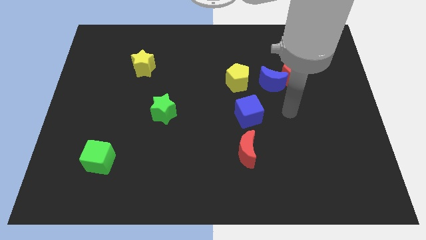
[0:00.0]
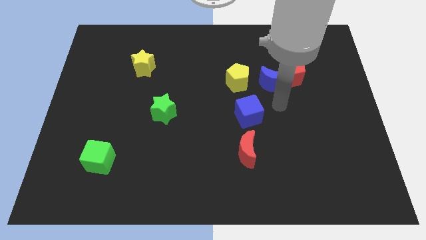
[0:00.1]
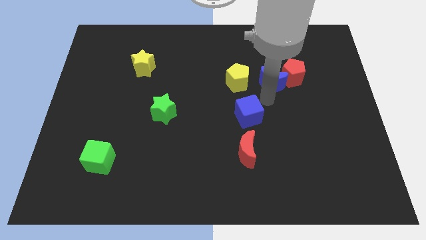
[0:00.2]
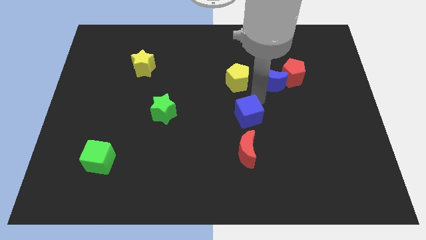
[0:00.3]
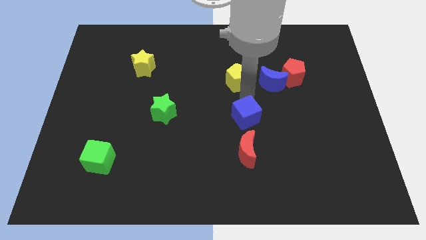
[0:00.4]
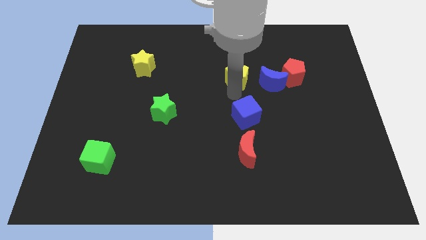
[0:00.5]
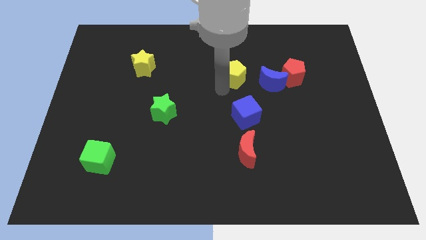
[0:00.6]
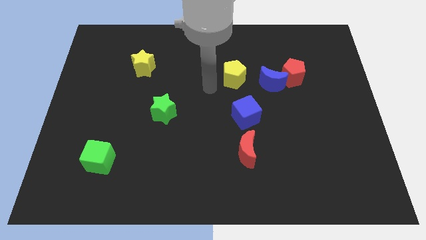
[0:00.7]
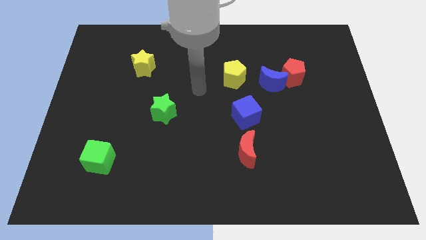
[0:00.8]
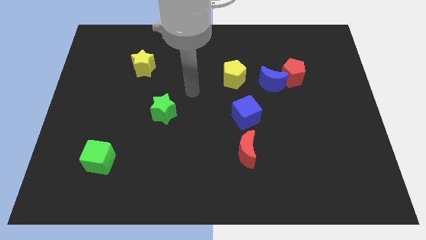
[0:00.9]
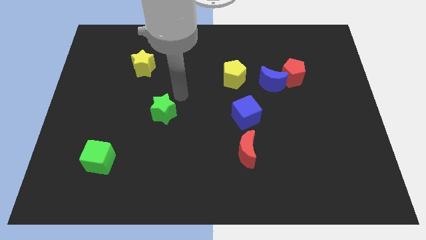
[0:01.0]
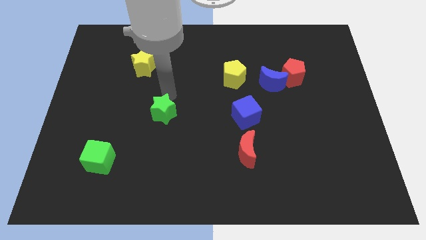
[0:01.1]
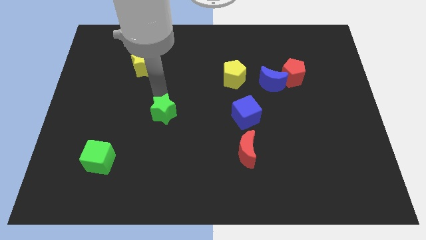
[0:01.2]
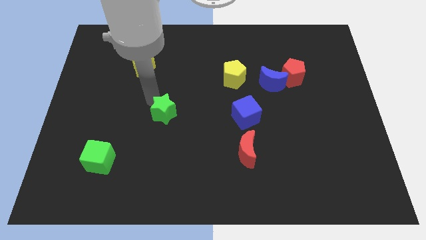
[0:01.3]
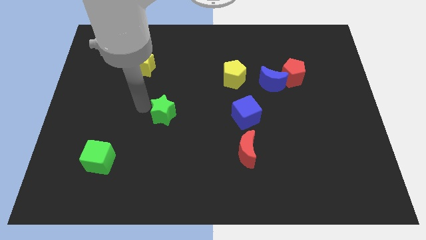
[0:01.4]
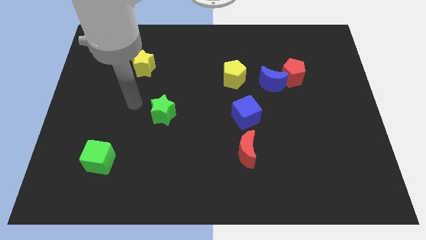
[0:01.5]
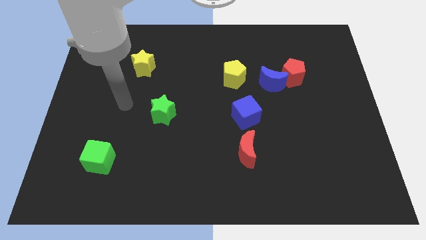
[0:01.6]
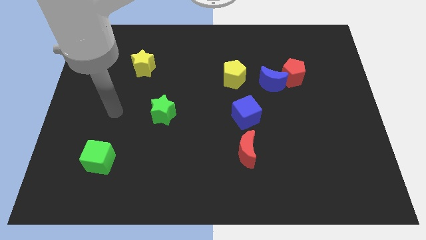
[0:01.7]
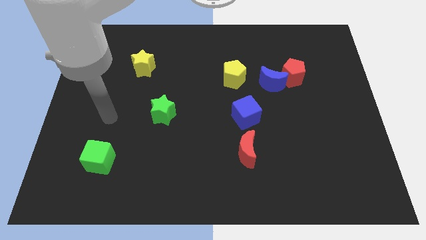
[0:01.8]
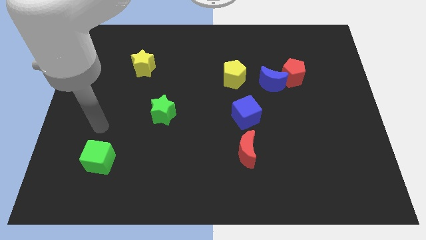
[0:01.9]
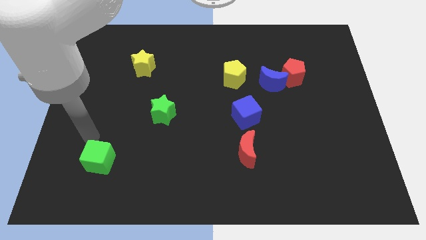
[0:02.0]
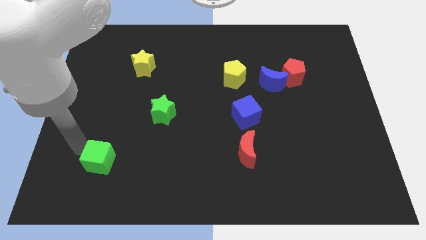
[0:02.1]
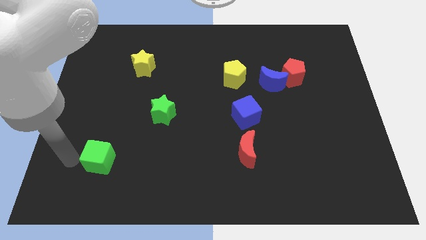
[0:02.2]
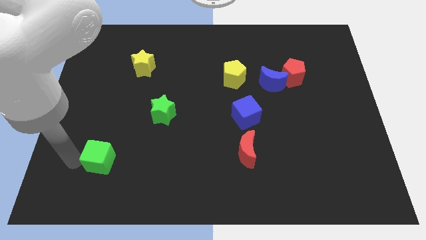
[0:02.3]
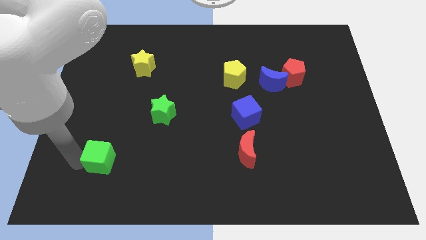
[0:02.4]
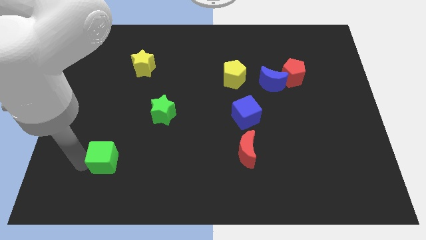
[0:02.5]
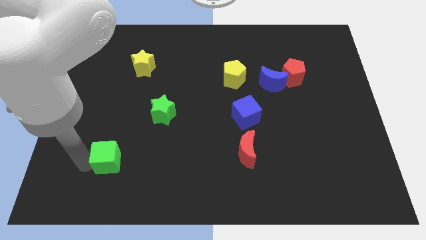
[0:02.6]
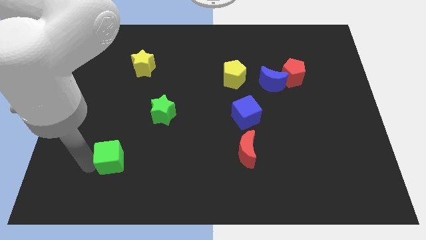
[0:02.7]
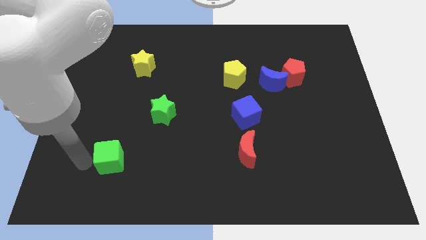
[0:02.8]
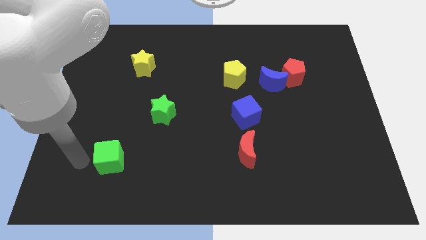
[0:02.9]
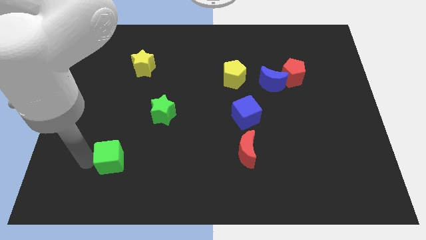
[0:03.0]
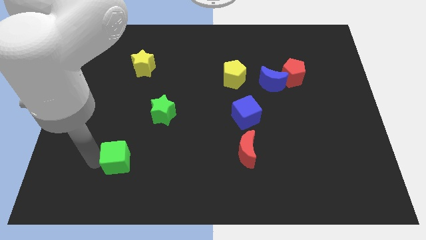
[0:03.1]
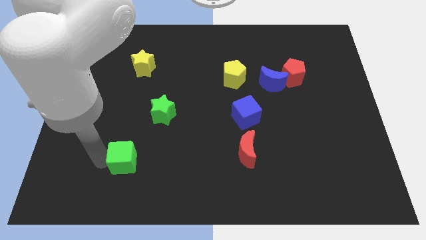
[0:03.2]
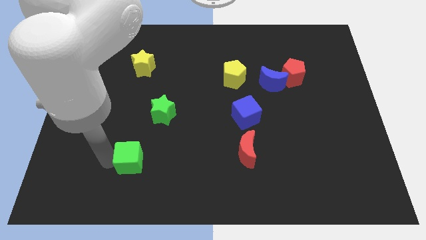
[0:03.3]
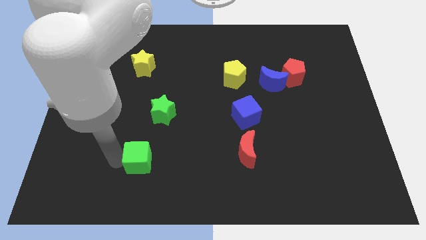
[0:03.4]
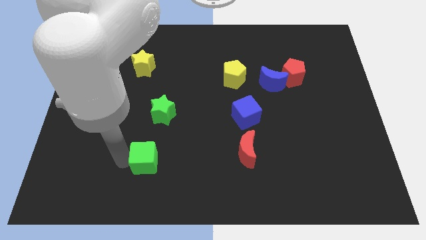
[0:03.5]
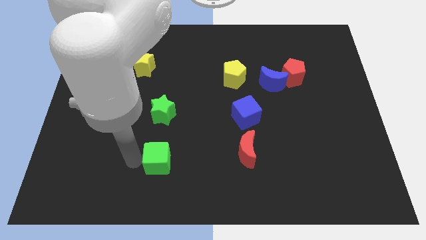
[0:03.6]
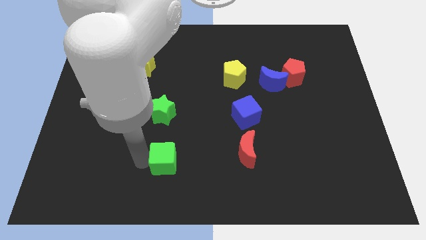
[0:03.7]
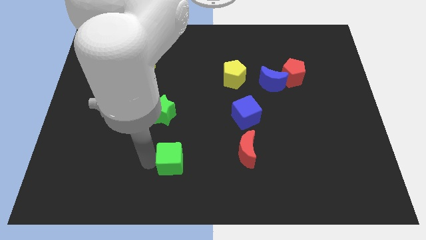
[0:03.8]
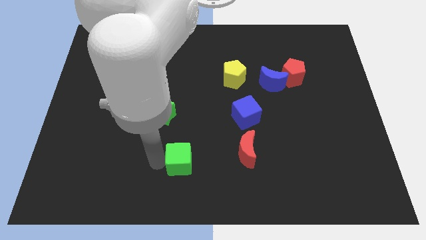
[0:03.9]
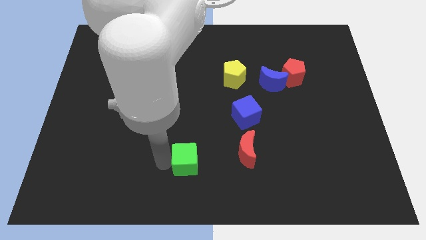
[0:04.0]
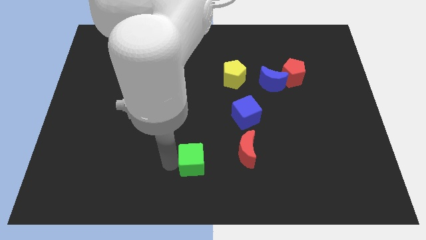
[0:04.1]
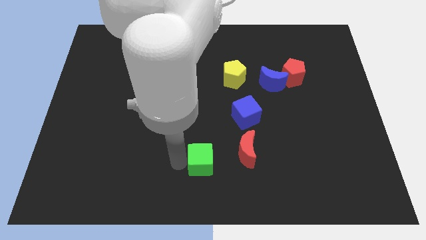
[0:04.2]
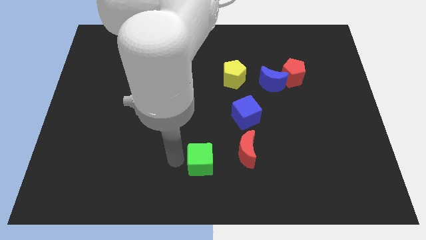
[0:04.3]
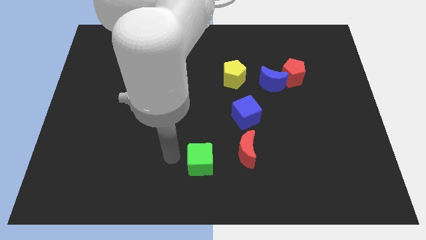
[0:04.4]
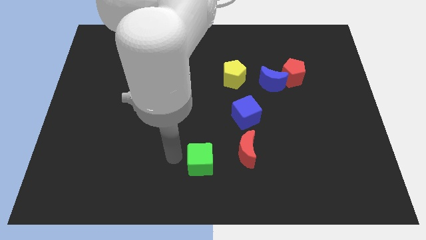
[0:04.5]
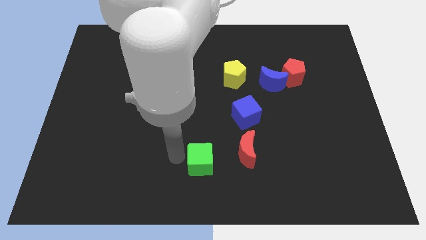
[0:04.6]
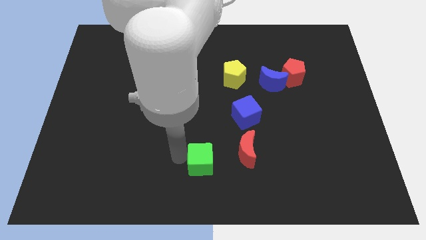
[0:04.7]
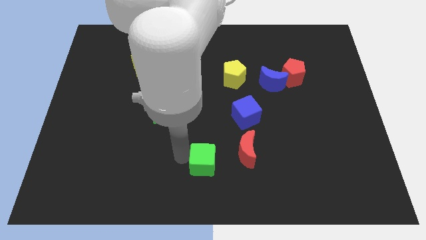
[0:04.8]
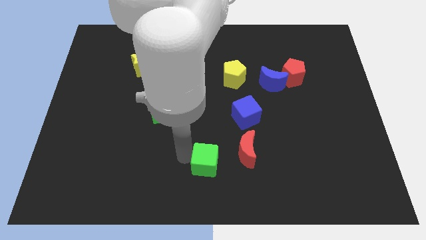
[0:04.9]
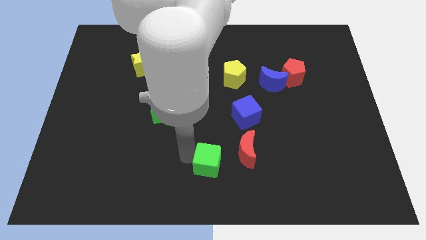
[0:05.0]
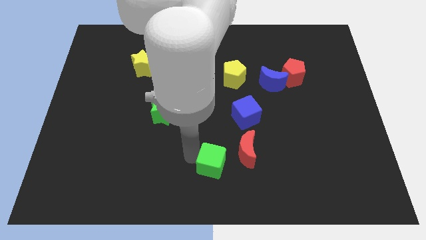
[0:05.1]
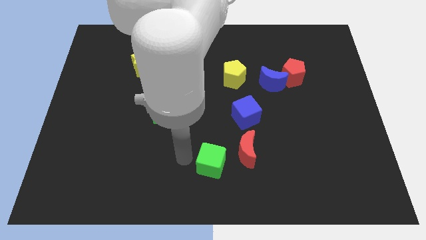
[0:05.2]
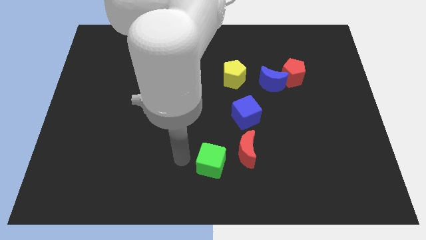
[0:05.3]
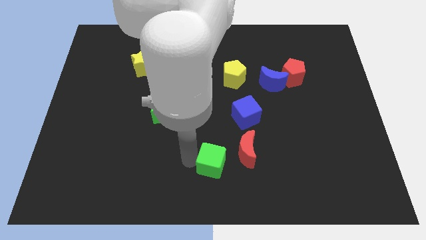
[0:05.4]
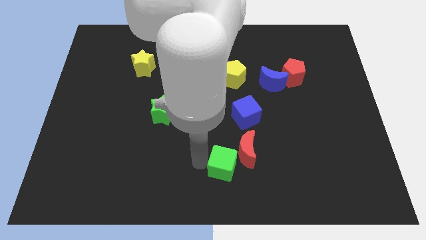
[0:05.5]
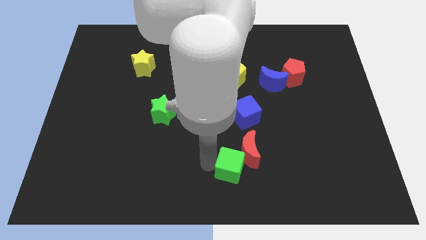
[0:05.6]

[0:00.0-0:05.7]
push the green cube to the bottom of the blue cube

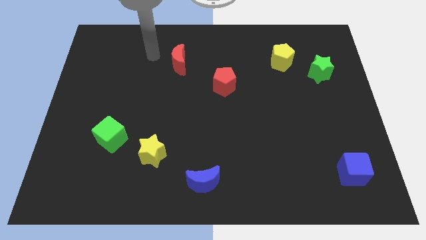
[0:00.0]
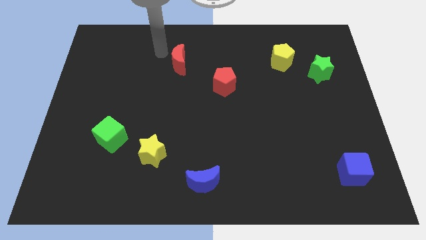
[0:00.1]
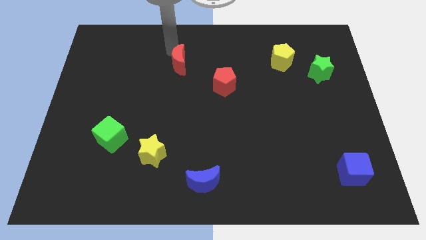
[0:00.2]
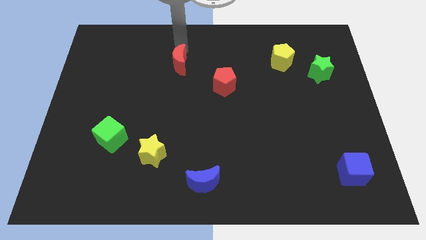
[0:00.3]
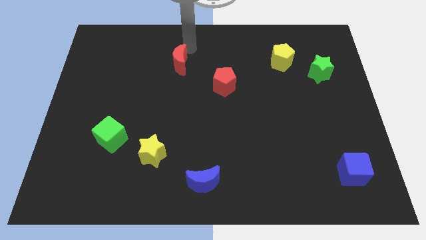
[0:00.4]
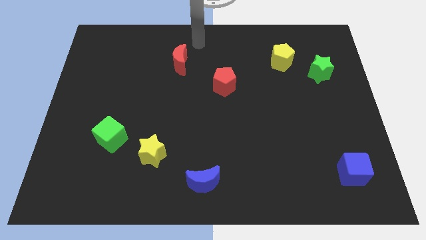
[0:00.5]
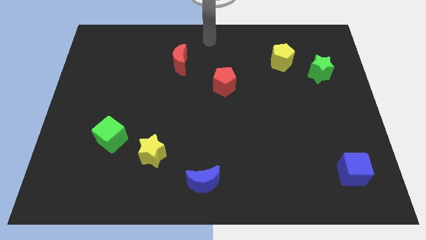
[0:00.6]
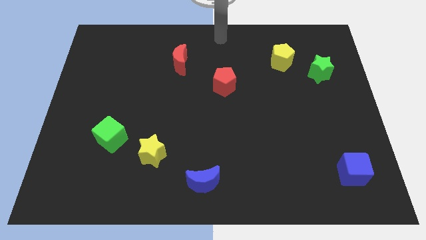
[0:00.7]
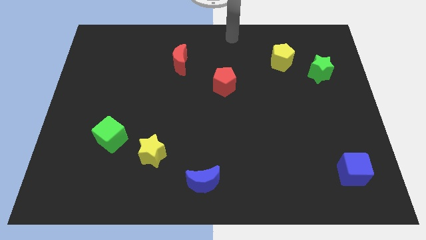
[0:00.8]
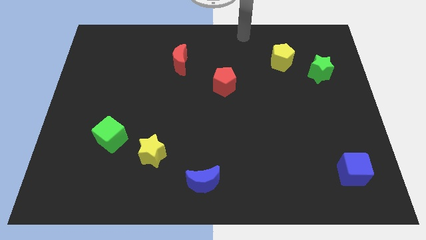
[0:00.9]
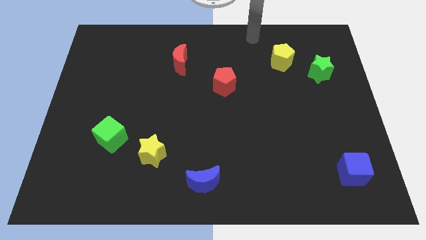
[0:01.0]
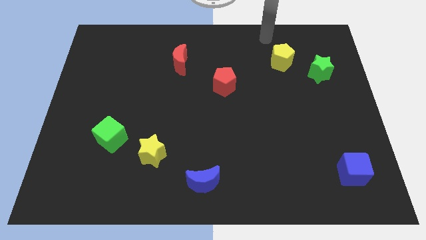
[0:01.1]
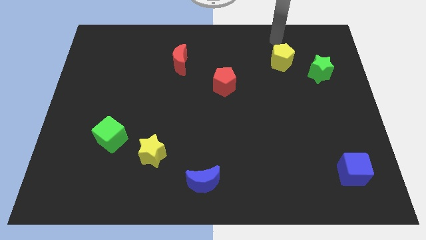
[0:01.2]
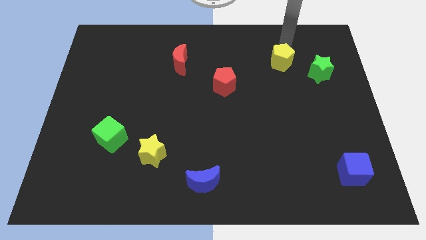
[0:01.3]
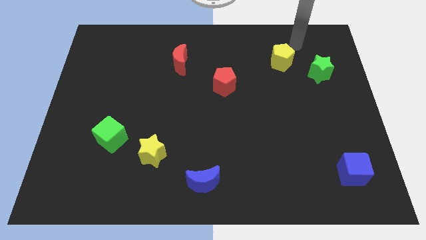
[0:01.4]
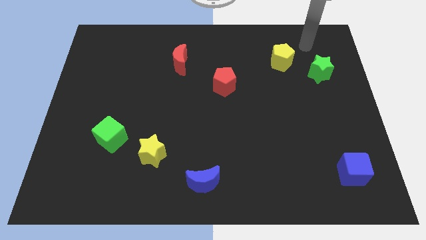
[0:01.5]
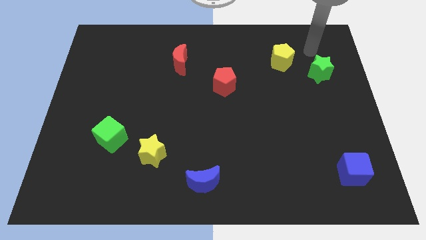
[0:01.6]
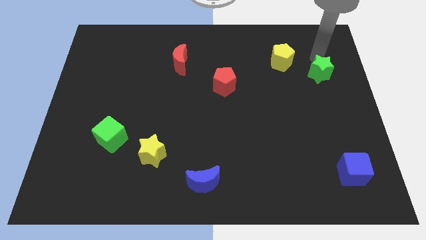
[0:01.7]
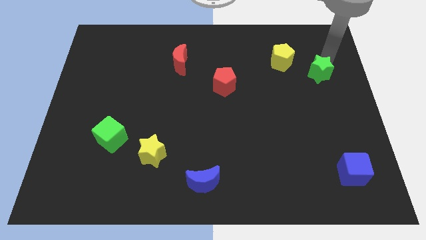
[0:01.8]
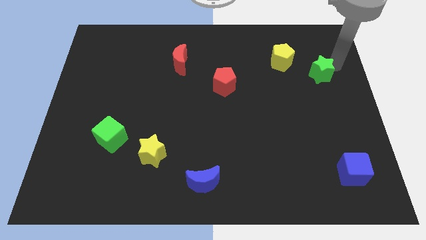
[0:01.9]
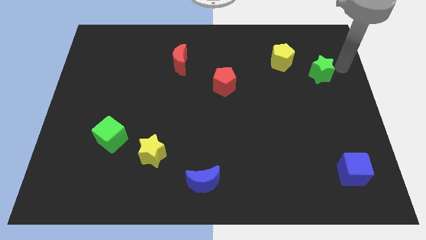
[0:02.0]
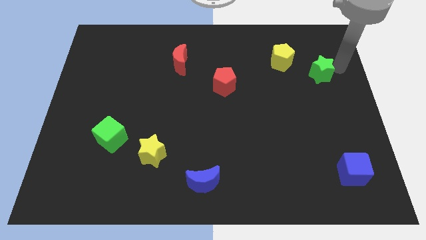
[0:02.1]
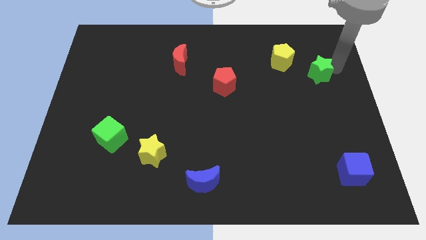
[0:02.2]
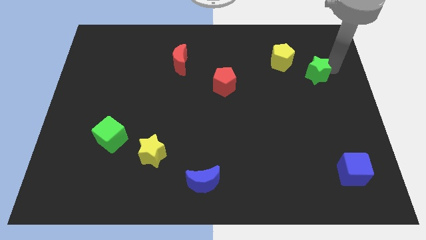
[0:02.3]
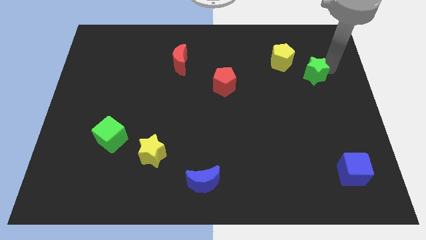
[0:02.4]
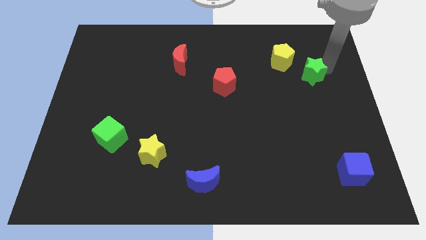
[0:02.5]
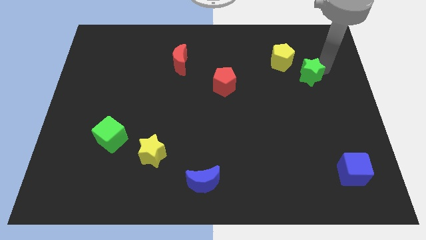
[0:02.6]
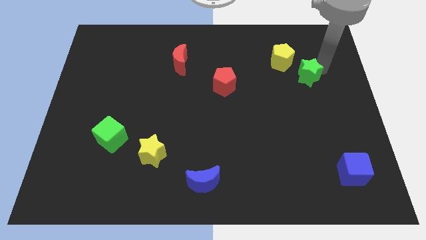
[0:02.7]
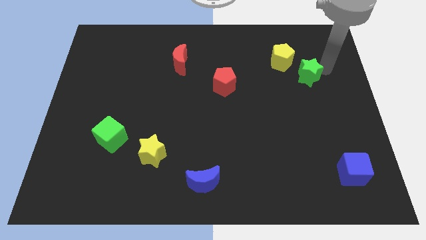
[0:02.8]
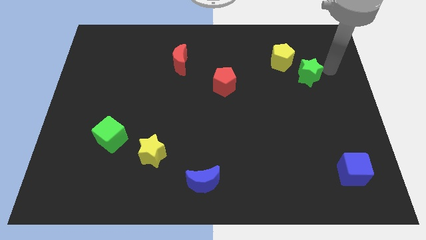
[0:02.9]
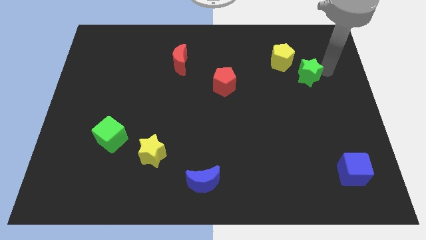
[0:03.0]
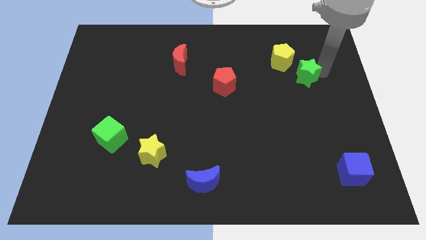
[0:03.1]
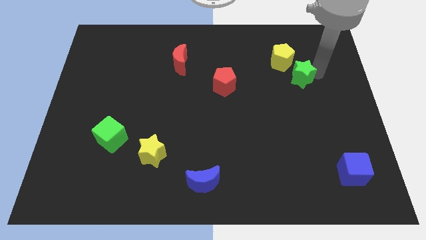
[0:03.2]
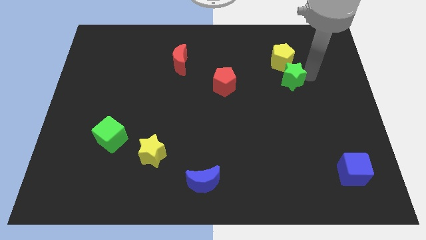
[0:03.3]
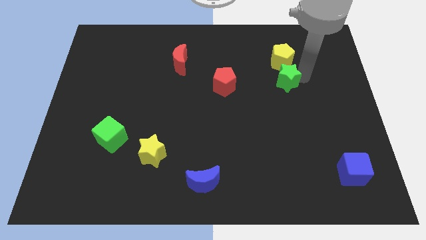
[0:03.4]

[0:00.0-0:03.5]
slide the green star to the right of the red pentagon
